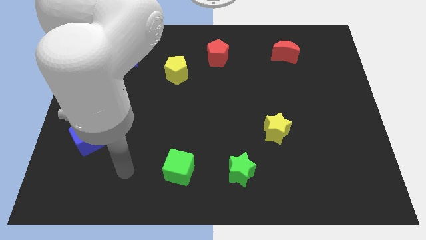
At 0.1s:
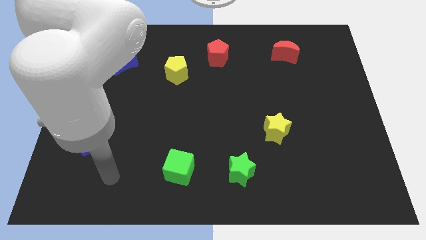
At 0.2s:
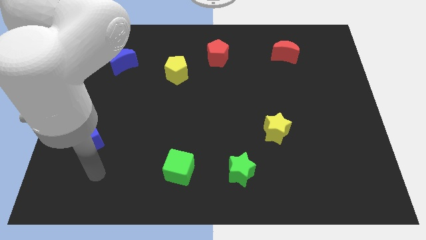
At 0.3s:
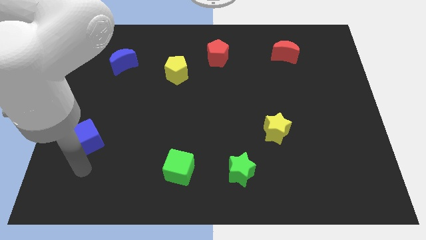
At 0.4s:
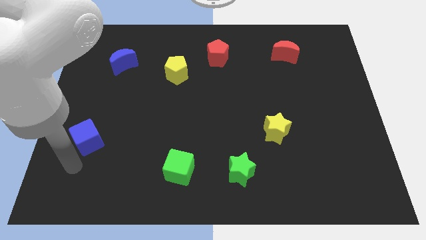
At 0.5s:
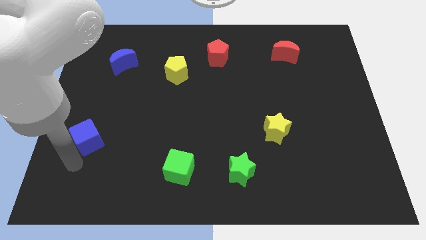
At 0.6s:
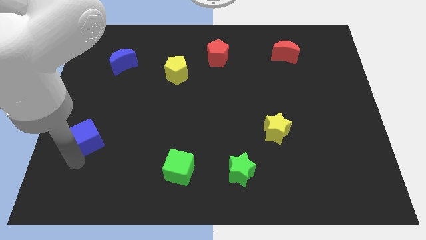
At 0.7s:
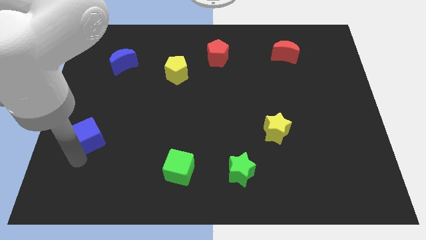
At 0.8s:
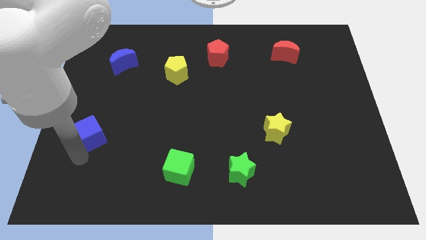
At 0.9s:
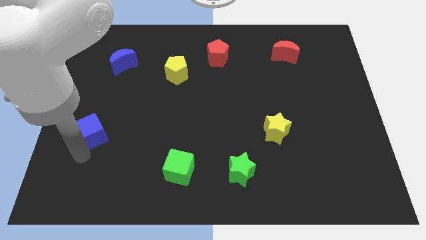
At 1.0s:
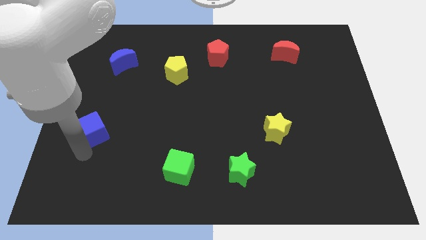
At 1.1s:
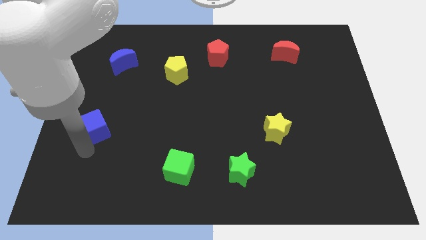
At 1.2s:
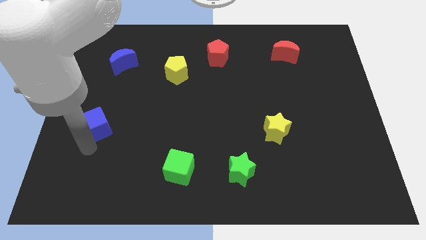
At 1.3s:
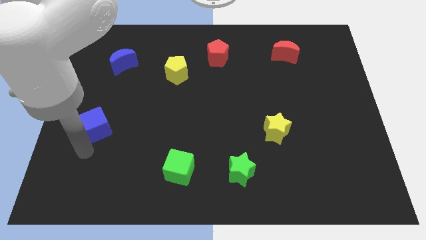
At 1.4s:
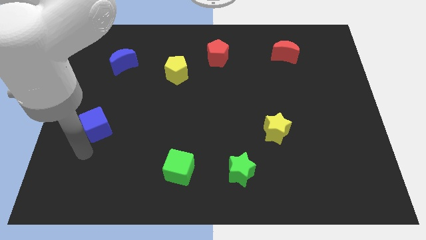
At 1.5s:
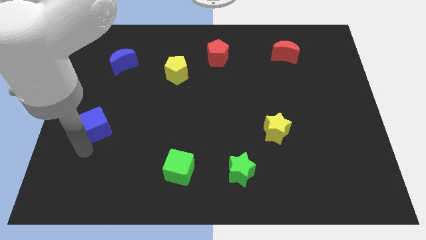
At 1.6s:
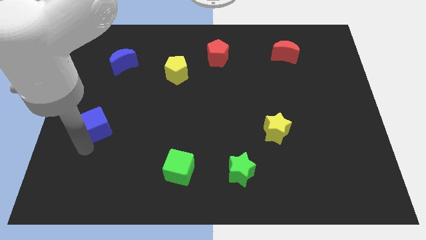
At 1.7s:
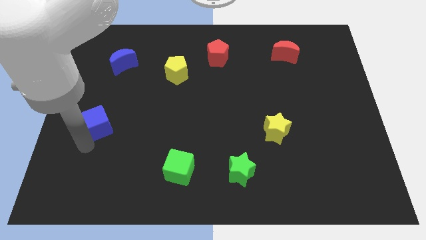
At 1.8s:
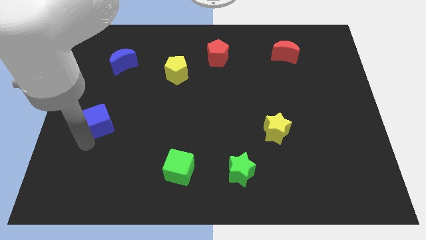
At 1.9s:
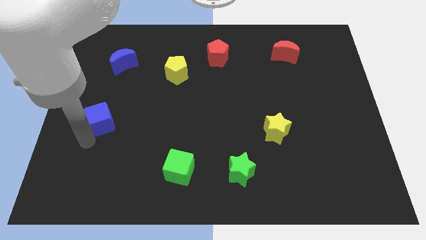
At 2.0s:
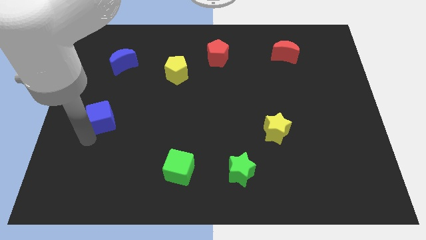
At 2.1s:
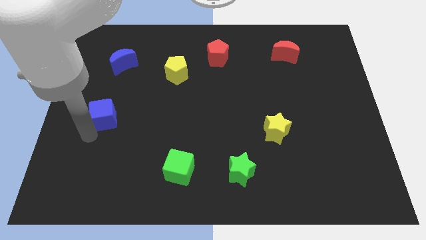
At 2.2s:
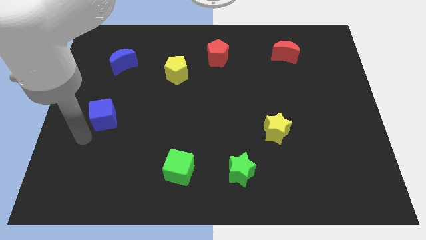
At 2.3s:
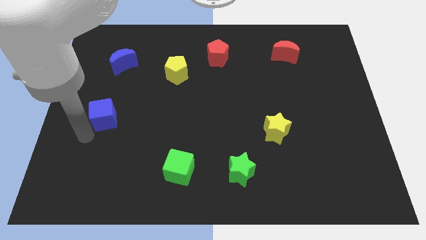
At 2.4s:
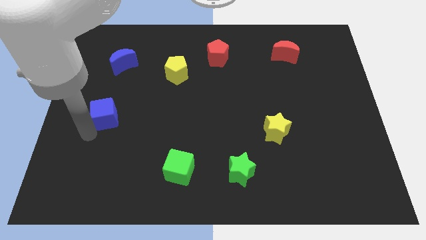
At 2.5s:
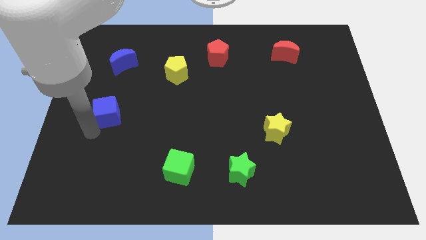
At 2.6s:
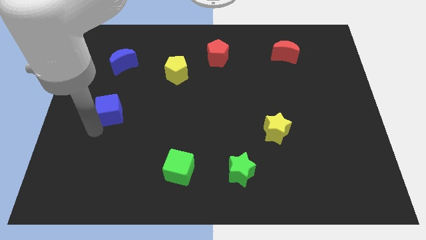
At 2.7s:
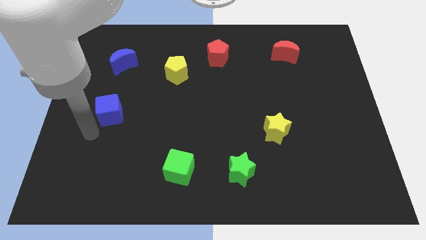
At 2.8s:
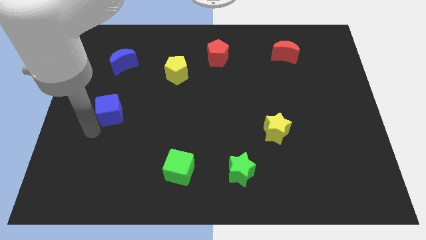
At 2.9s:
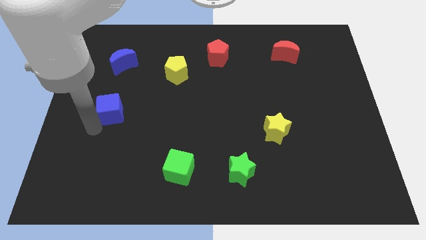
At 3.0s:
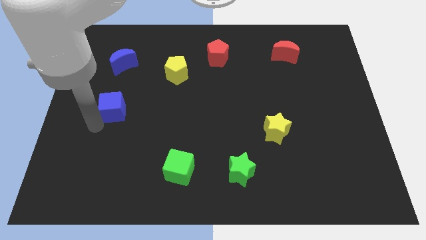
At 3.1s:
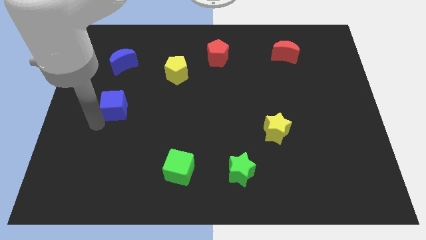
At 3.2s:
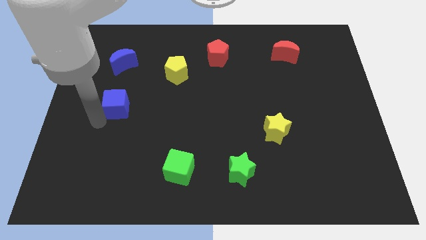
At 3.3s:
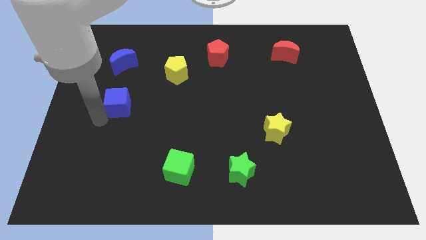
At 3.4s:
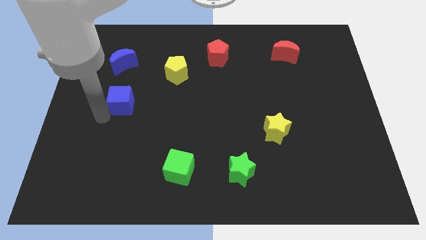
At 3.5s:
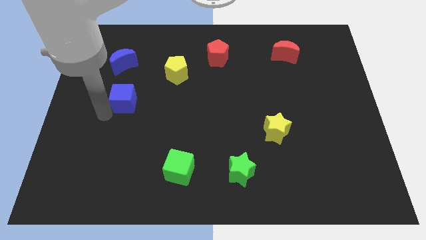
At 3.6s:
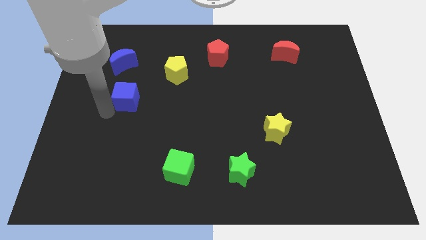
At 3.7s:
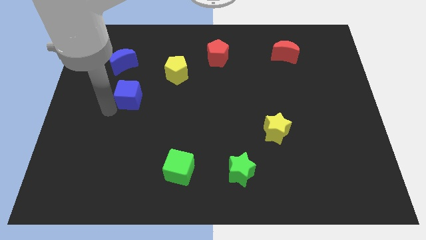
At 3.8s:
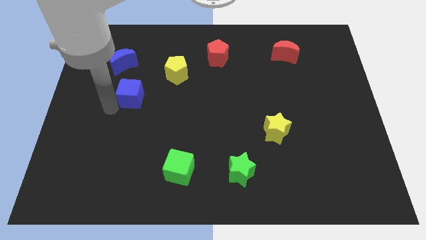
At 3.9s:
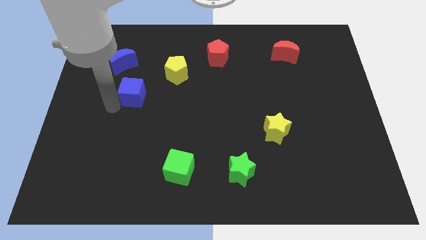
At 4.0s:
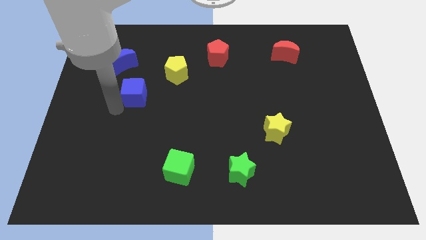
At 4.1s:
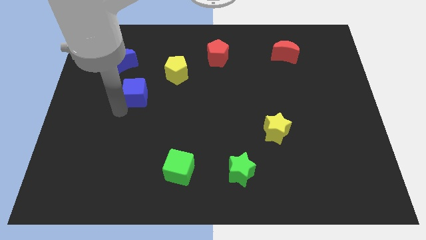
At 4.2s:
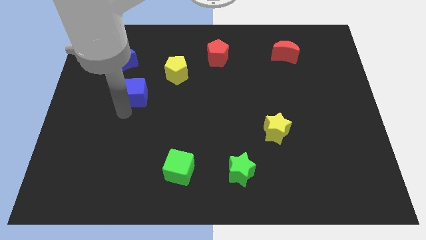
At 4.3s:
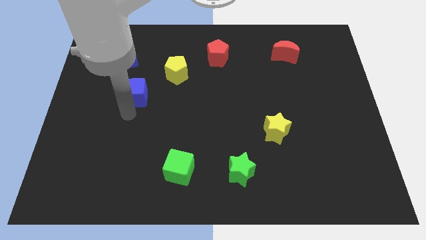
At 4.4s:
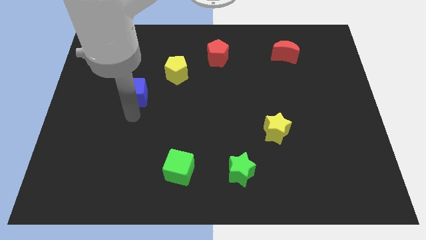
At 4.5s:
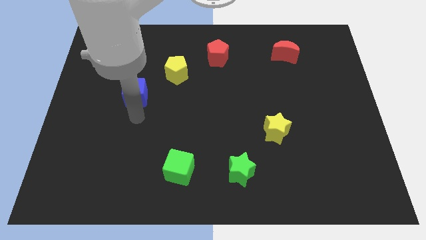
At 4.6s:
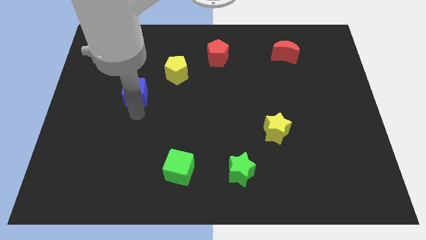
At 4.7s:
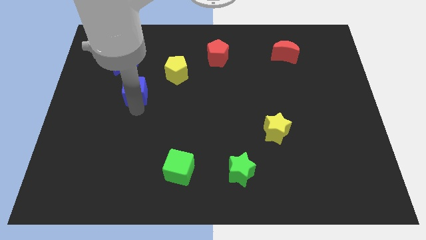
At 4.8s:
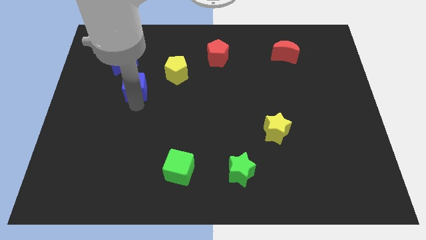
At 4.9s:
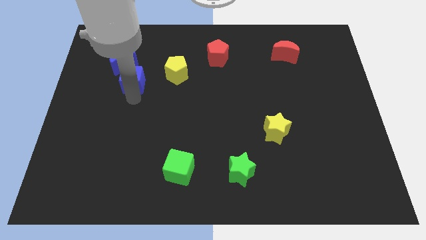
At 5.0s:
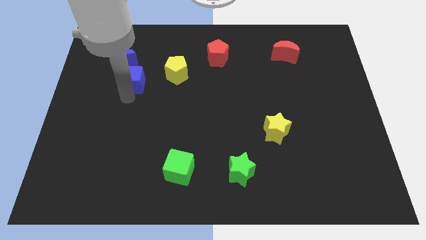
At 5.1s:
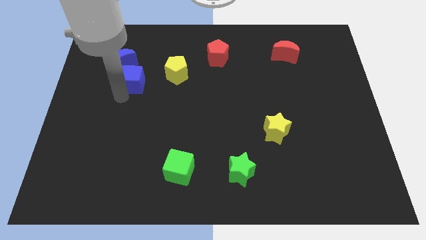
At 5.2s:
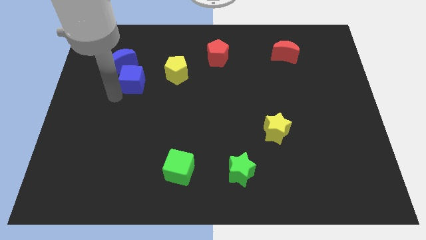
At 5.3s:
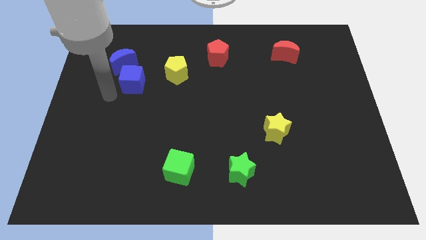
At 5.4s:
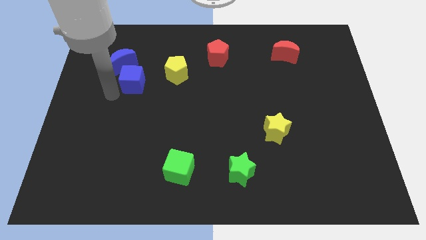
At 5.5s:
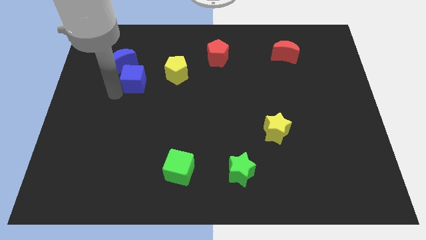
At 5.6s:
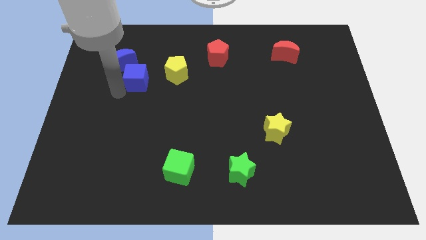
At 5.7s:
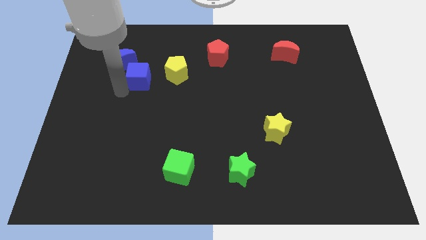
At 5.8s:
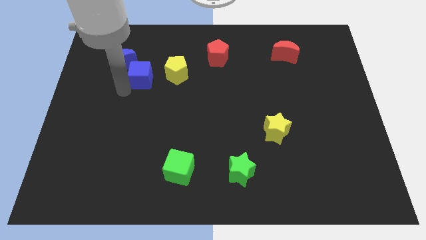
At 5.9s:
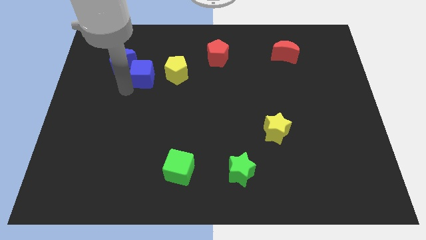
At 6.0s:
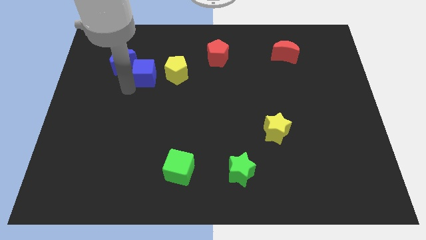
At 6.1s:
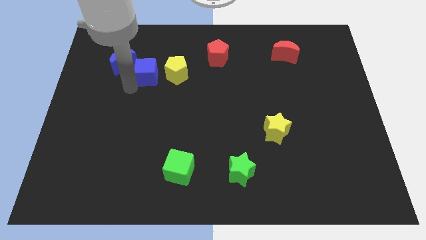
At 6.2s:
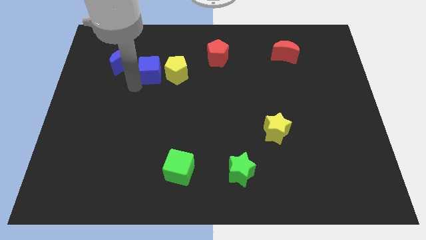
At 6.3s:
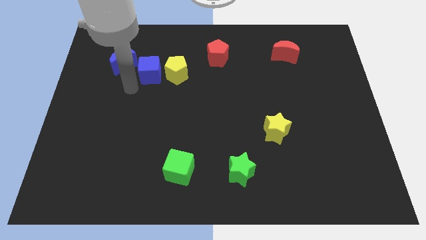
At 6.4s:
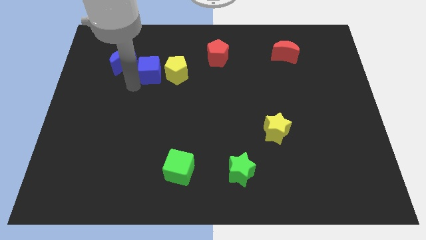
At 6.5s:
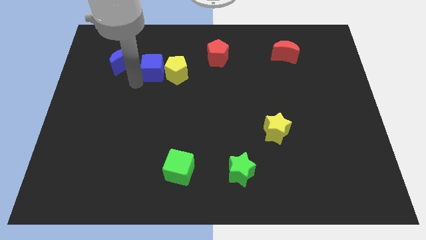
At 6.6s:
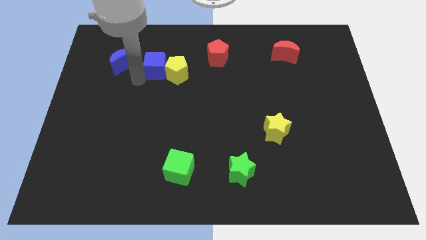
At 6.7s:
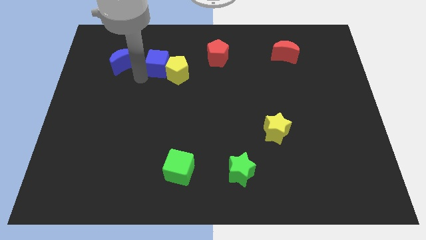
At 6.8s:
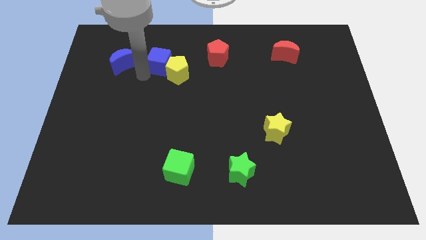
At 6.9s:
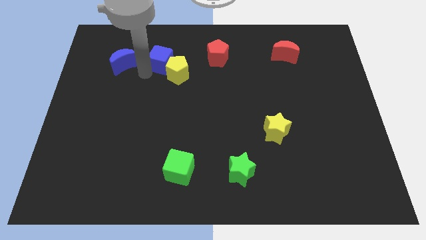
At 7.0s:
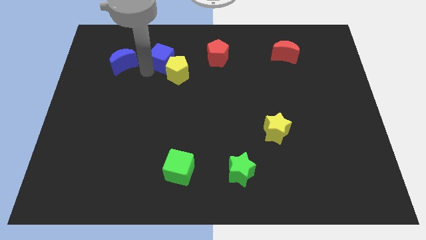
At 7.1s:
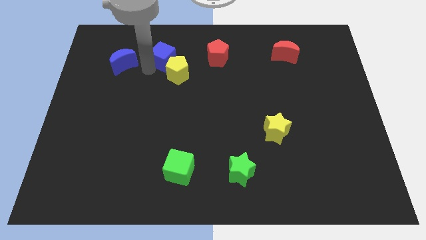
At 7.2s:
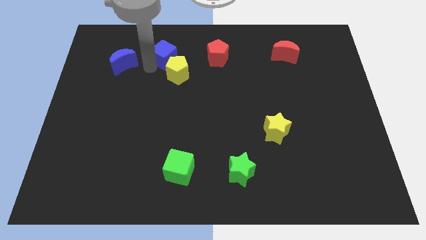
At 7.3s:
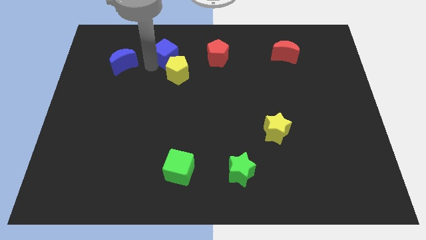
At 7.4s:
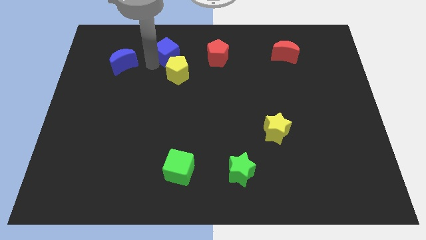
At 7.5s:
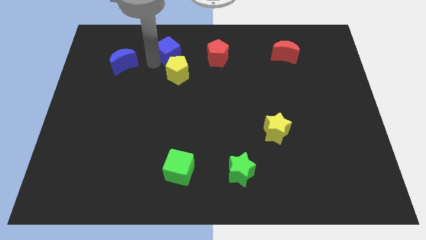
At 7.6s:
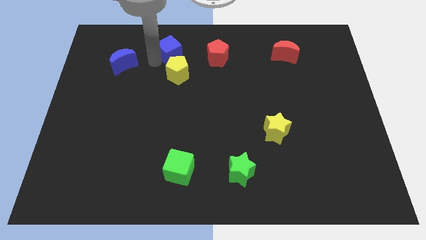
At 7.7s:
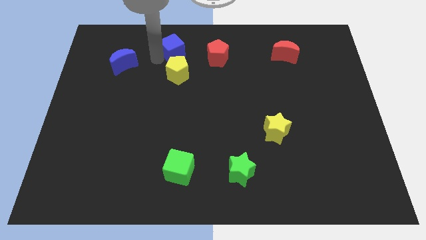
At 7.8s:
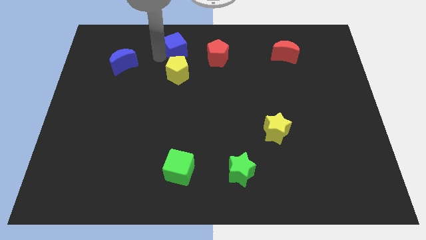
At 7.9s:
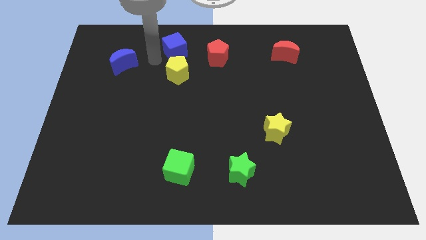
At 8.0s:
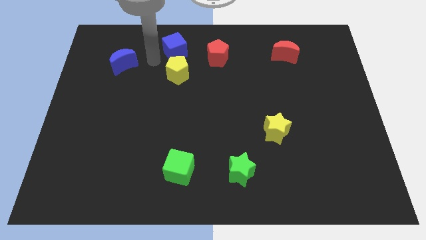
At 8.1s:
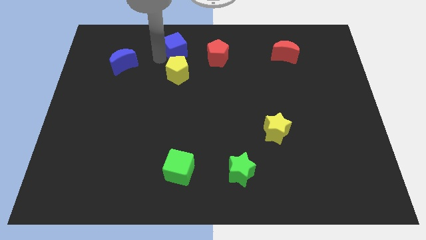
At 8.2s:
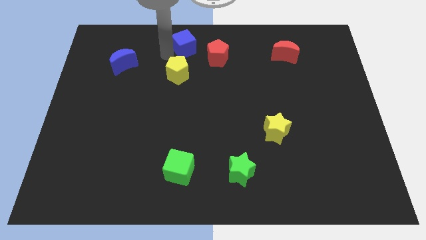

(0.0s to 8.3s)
slide the blue cube to the towards your base
